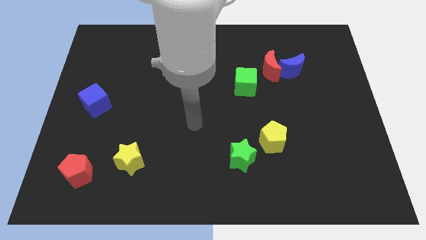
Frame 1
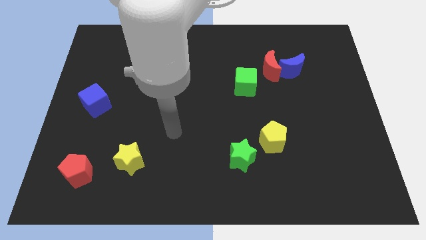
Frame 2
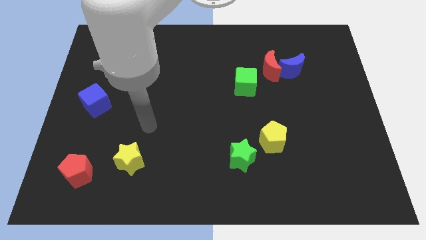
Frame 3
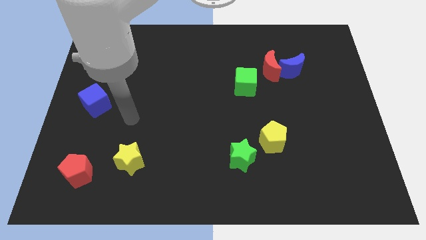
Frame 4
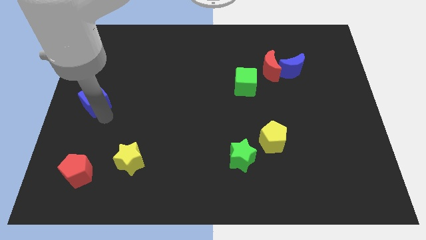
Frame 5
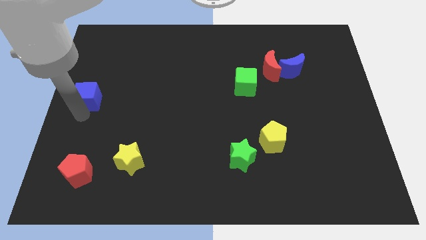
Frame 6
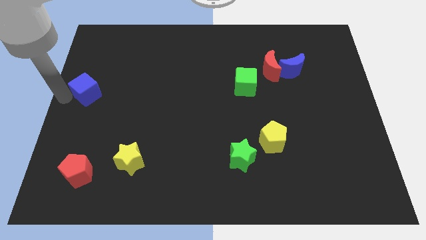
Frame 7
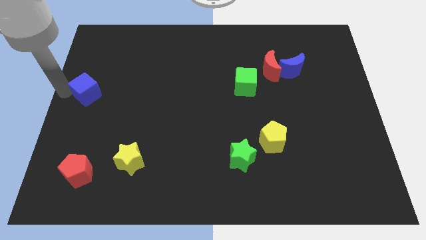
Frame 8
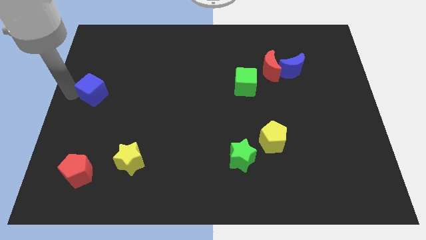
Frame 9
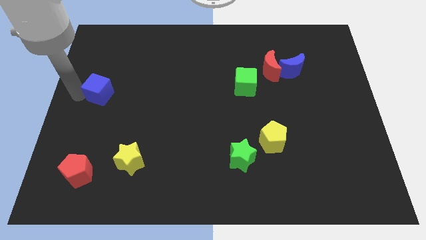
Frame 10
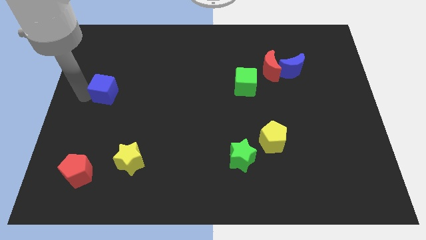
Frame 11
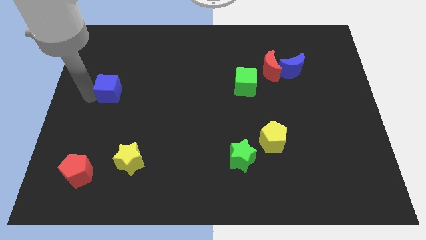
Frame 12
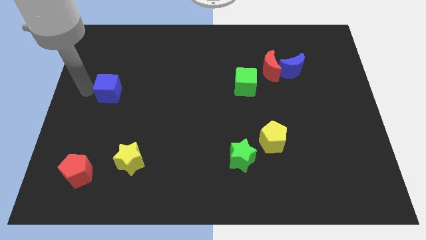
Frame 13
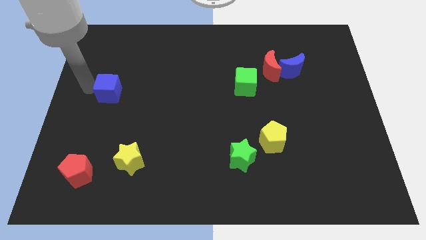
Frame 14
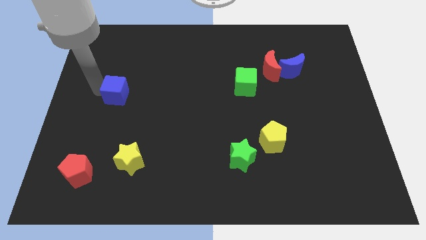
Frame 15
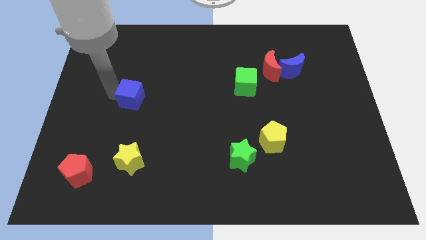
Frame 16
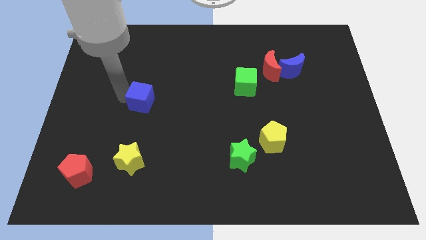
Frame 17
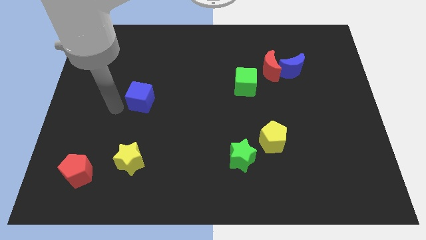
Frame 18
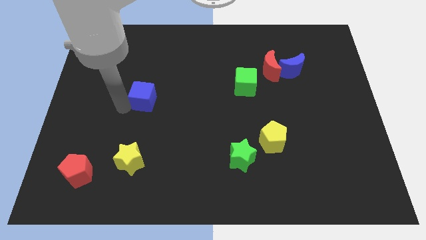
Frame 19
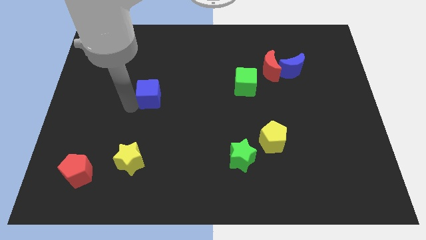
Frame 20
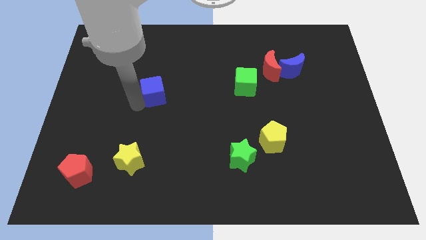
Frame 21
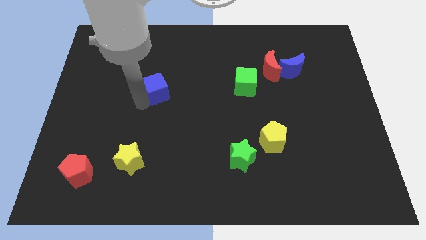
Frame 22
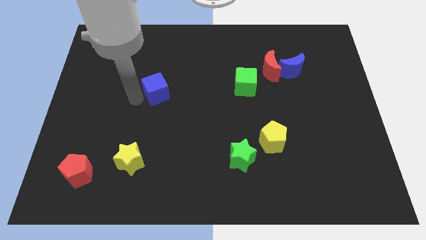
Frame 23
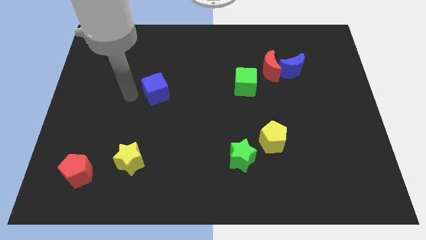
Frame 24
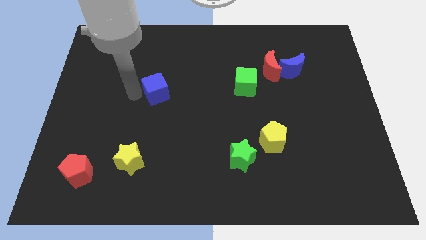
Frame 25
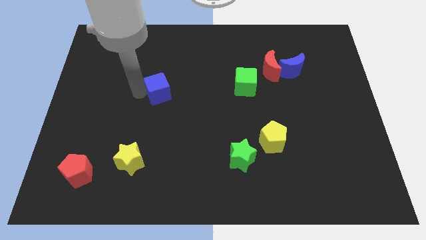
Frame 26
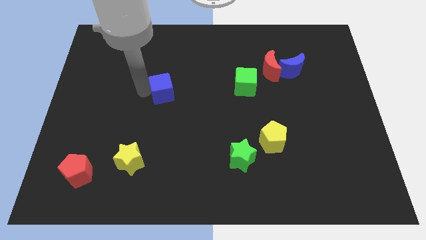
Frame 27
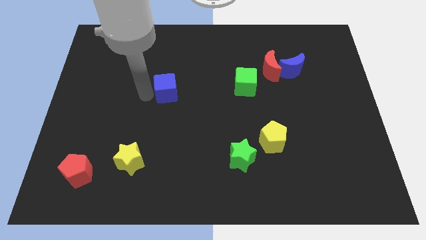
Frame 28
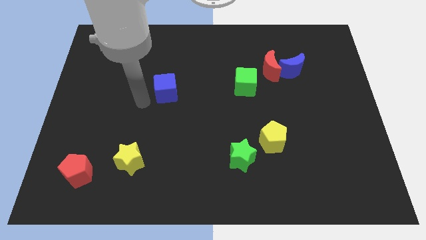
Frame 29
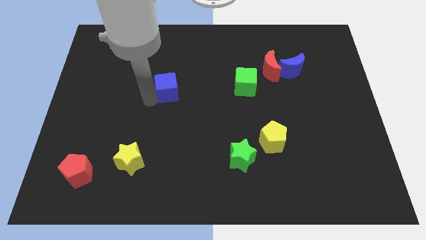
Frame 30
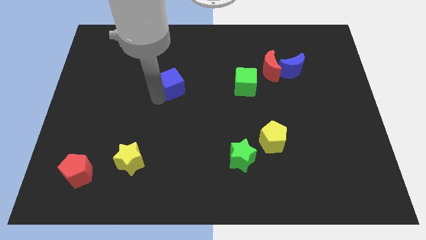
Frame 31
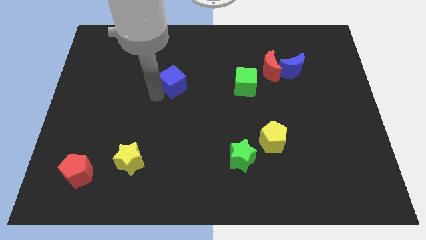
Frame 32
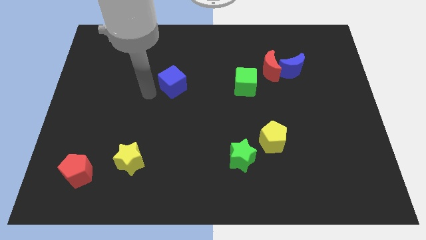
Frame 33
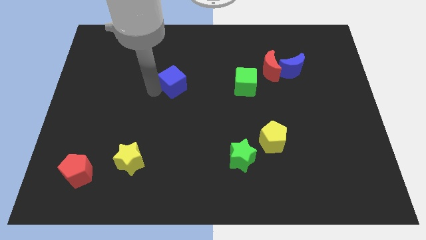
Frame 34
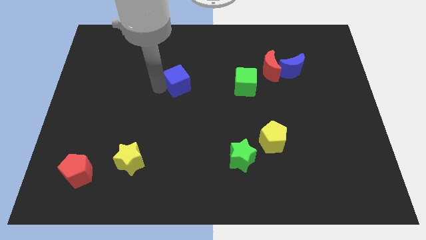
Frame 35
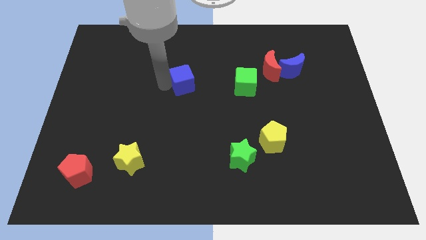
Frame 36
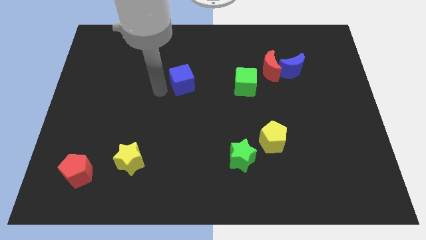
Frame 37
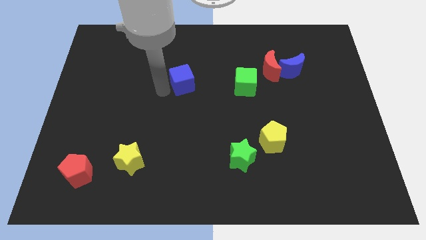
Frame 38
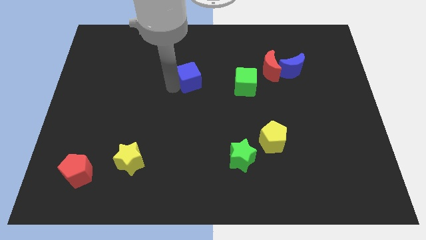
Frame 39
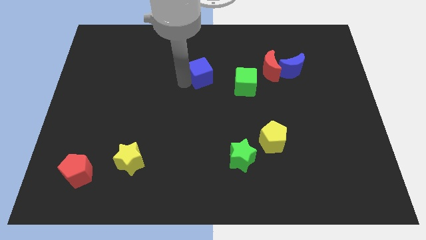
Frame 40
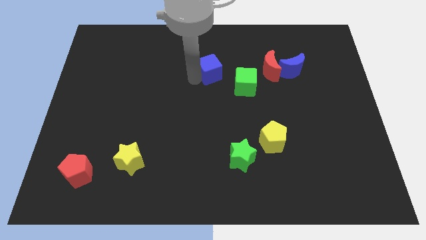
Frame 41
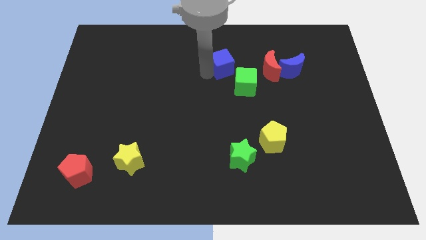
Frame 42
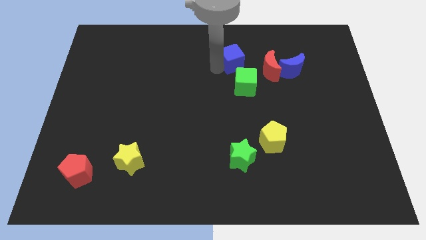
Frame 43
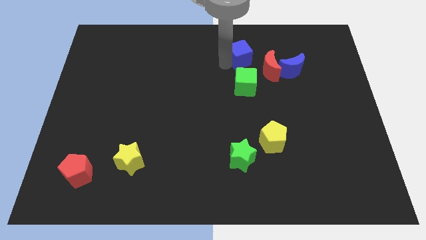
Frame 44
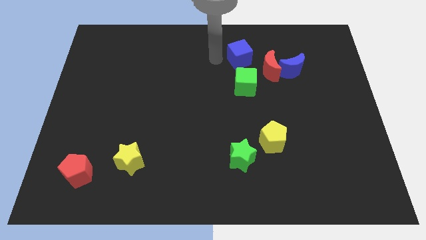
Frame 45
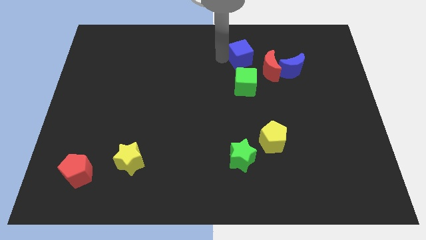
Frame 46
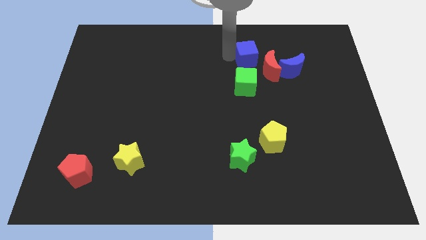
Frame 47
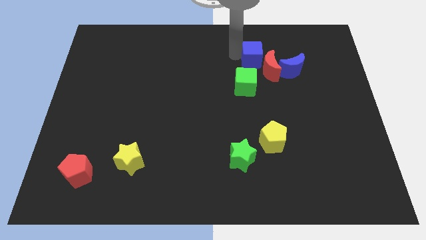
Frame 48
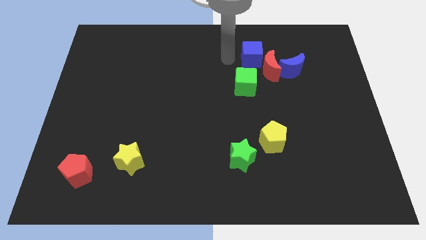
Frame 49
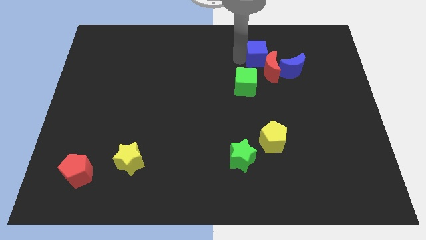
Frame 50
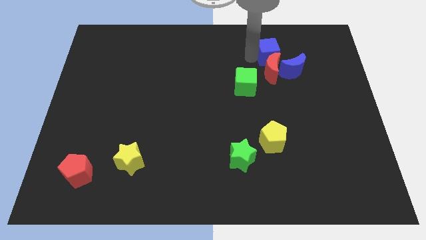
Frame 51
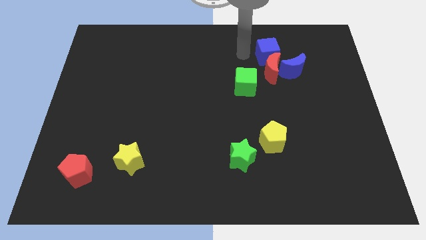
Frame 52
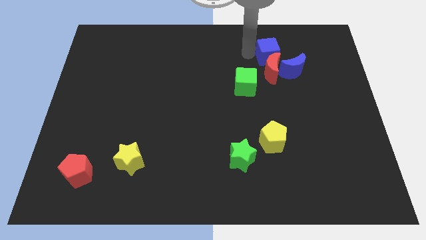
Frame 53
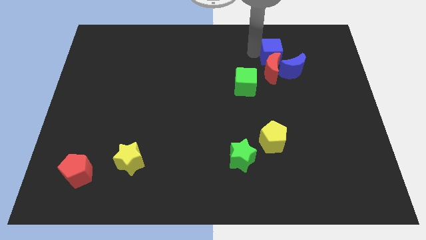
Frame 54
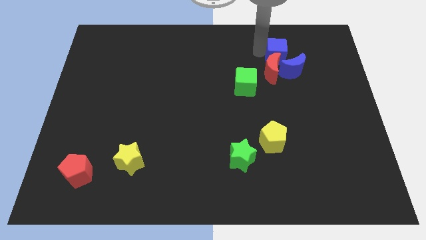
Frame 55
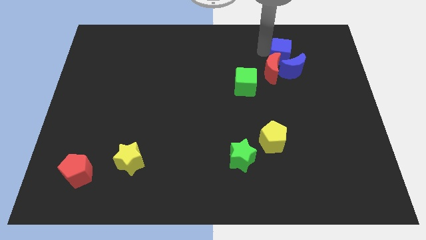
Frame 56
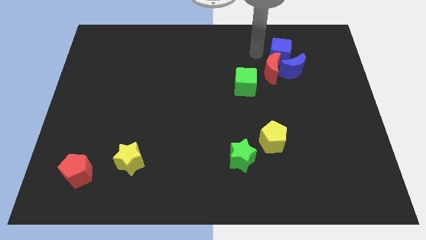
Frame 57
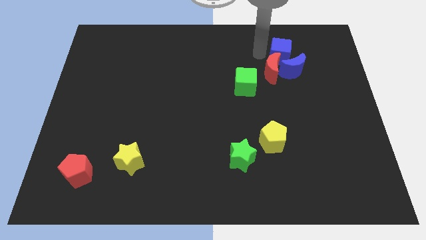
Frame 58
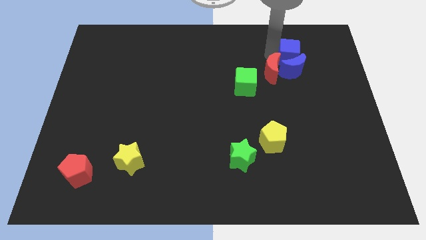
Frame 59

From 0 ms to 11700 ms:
push the blue cube to the top right of the blue moon
